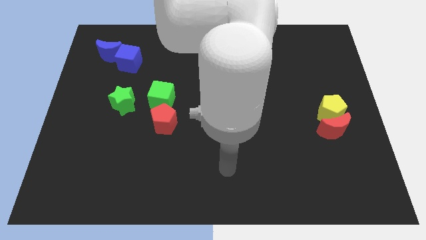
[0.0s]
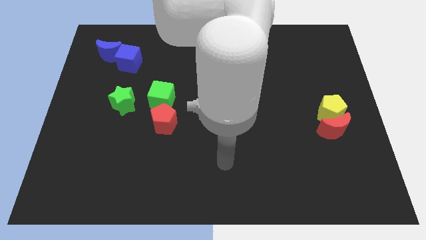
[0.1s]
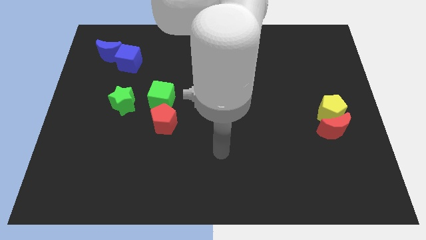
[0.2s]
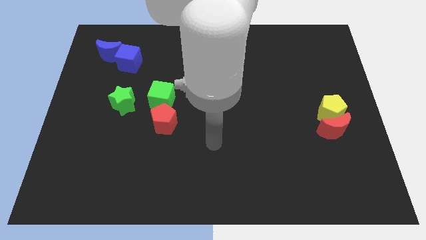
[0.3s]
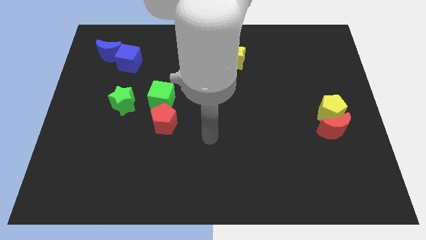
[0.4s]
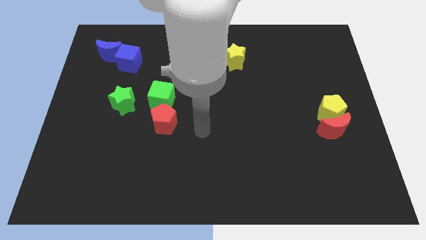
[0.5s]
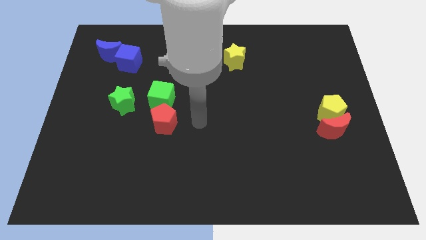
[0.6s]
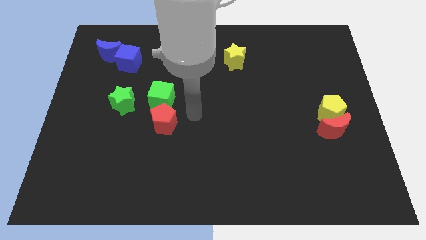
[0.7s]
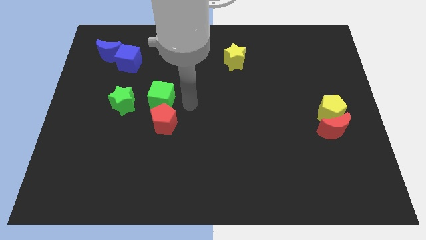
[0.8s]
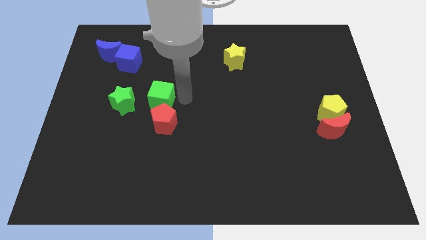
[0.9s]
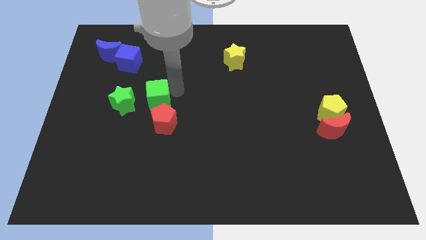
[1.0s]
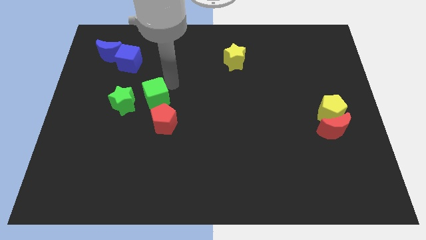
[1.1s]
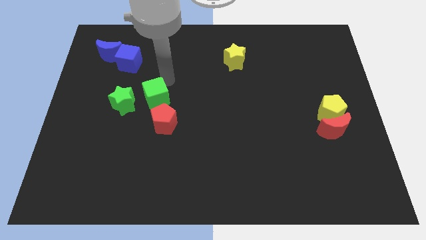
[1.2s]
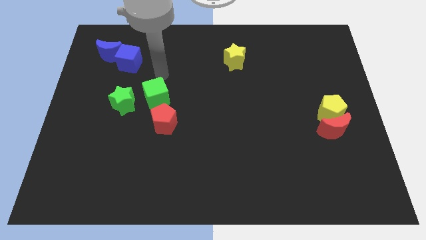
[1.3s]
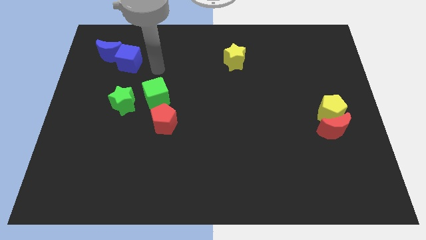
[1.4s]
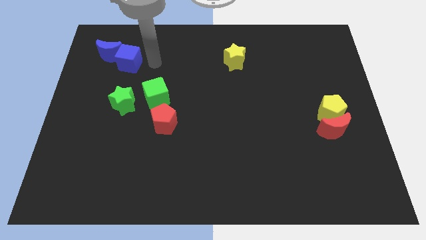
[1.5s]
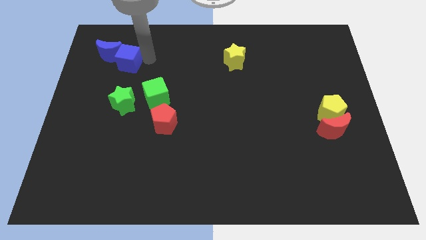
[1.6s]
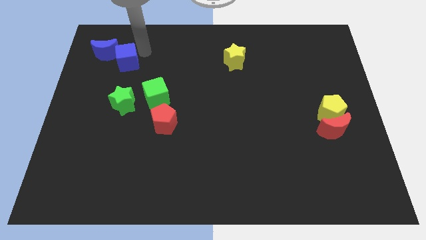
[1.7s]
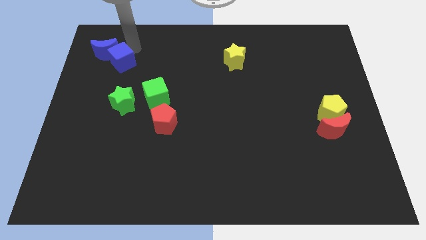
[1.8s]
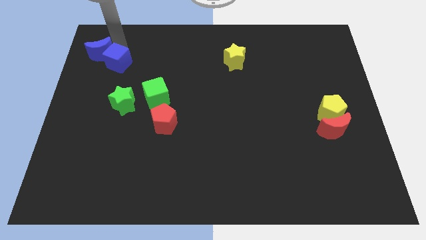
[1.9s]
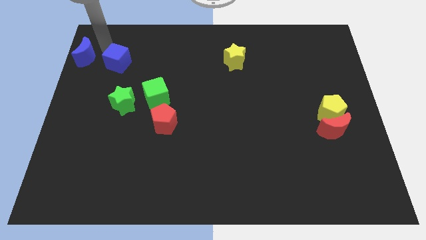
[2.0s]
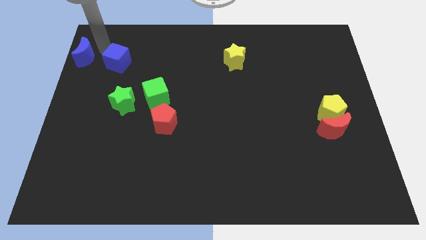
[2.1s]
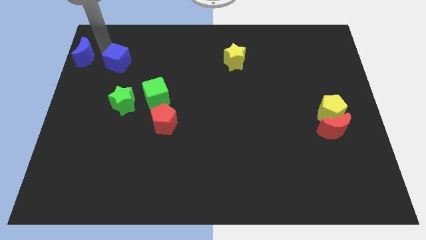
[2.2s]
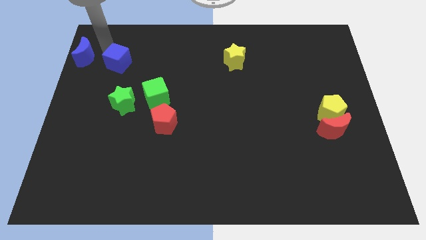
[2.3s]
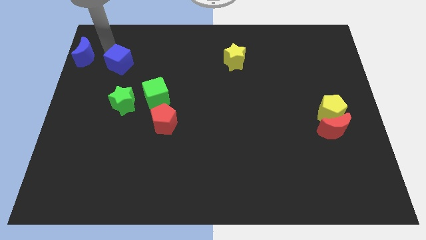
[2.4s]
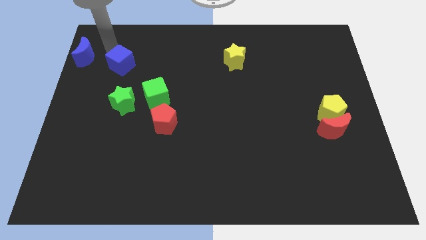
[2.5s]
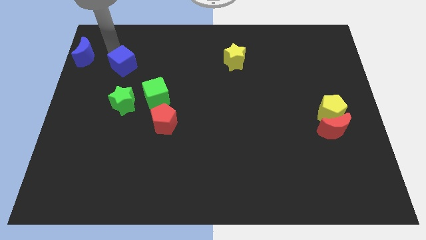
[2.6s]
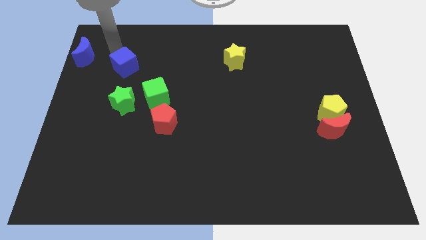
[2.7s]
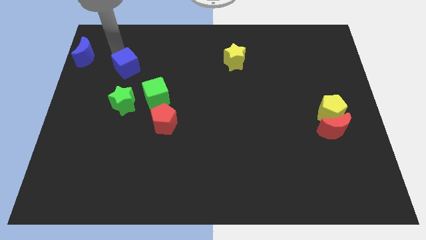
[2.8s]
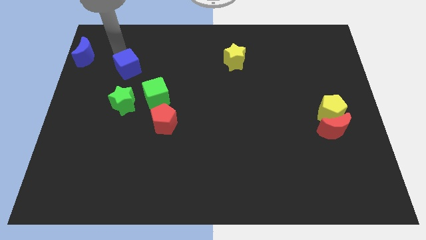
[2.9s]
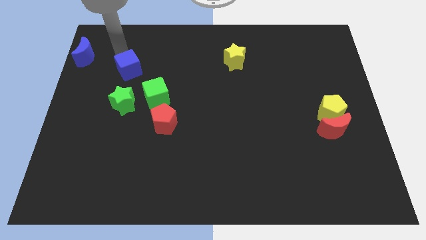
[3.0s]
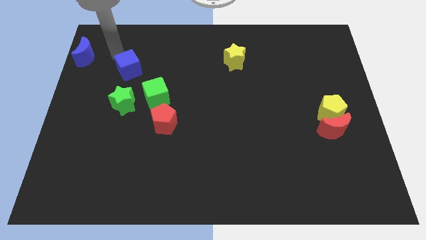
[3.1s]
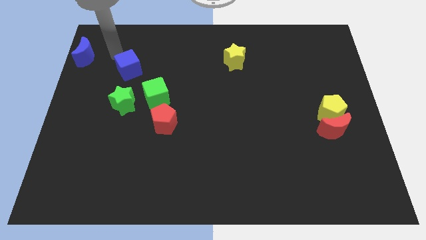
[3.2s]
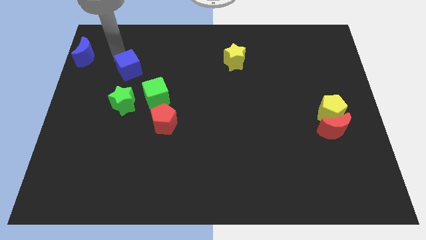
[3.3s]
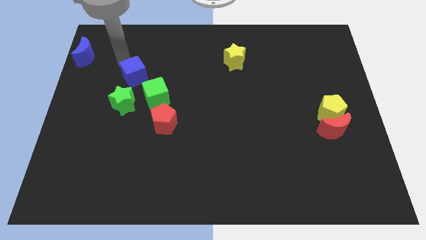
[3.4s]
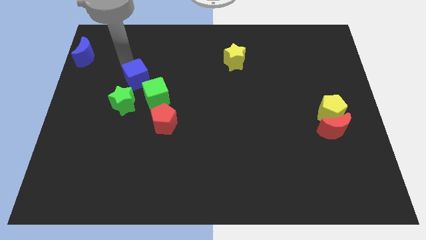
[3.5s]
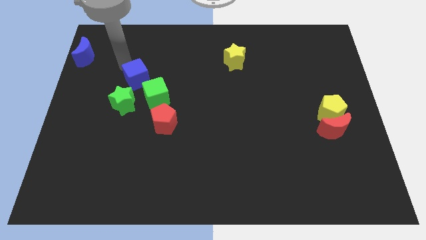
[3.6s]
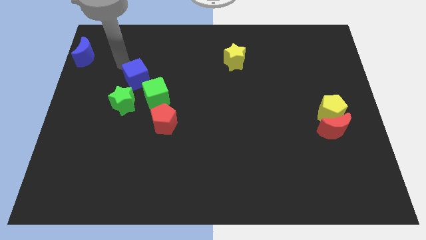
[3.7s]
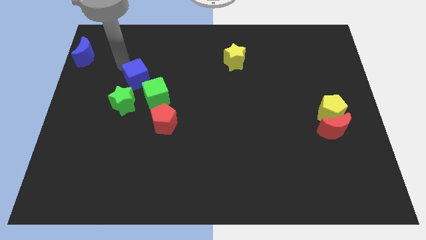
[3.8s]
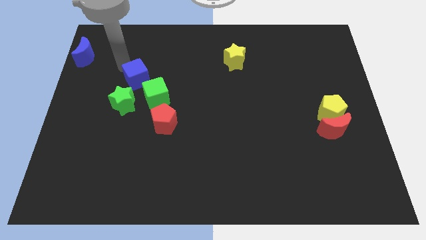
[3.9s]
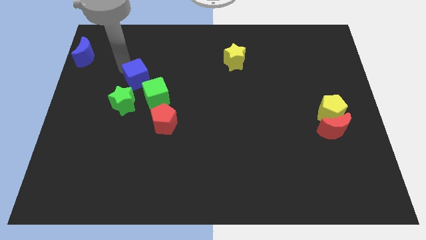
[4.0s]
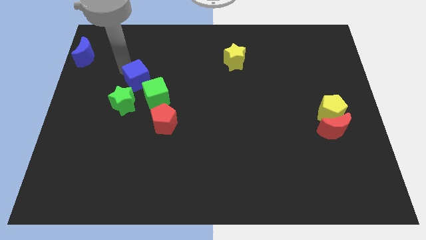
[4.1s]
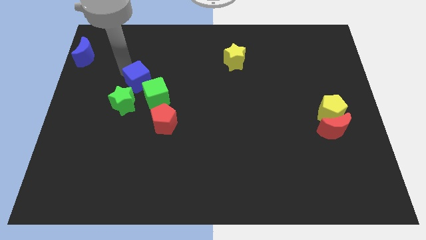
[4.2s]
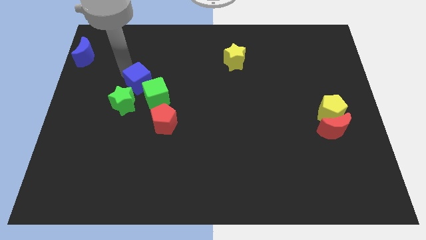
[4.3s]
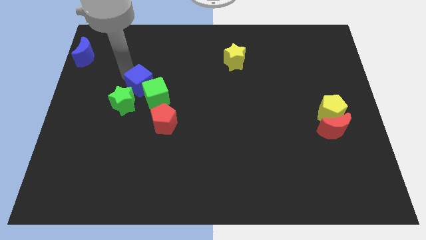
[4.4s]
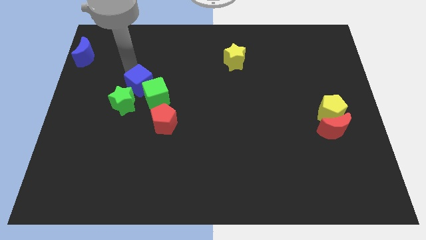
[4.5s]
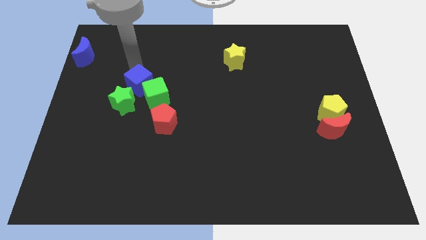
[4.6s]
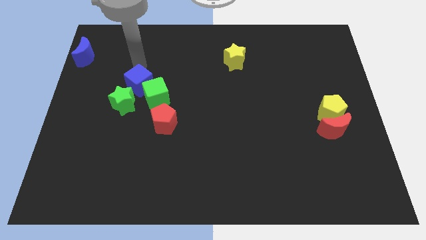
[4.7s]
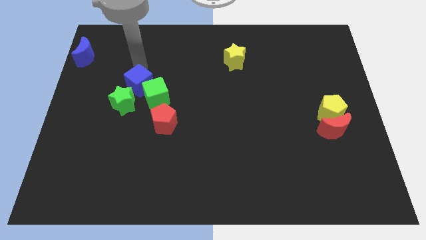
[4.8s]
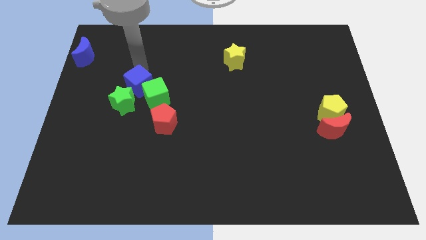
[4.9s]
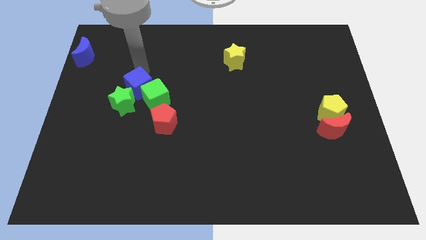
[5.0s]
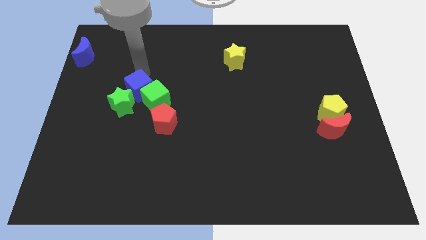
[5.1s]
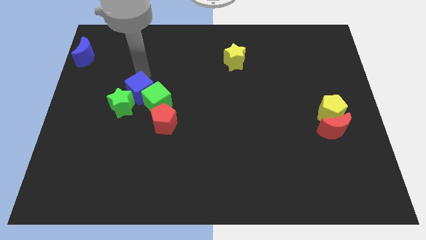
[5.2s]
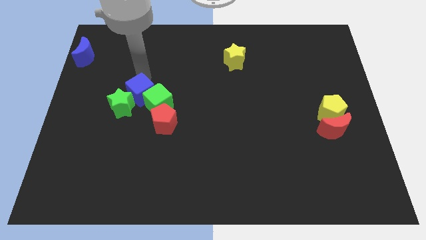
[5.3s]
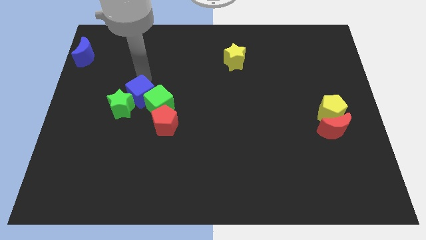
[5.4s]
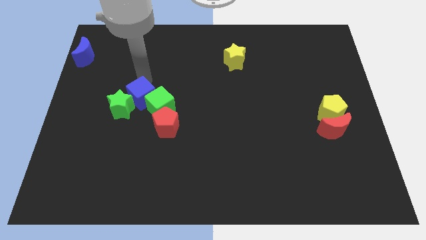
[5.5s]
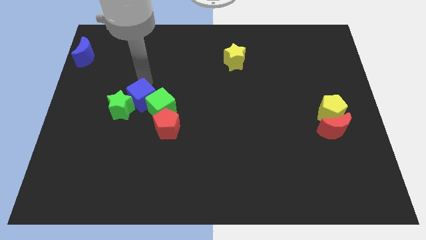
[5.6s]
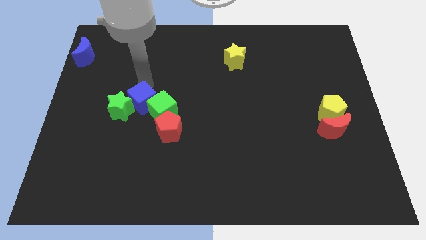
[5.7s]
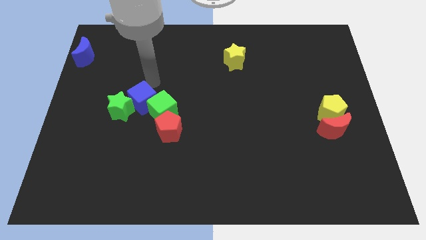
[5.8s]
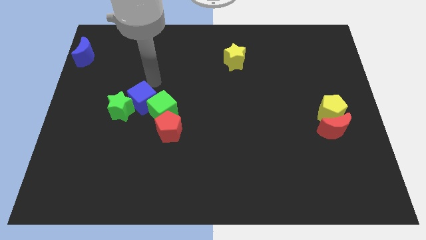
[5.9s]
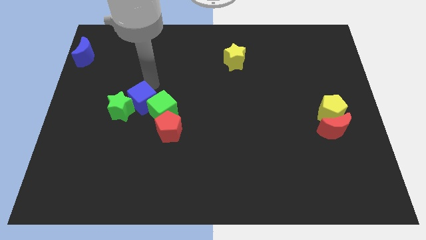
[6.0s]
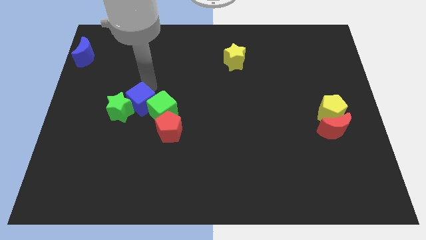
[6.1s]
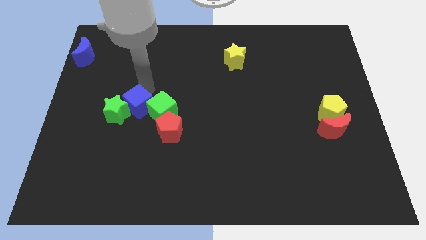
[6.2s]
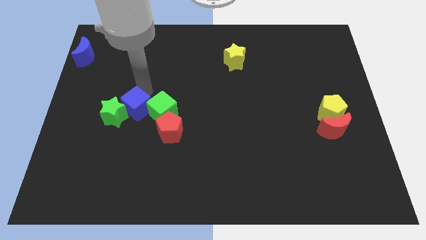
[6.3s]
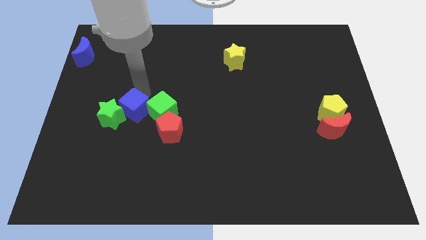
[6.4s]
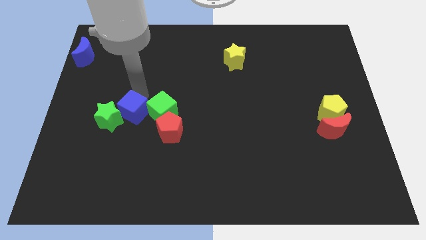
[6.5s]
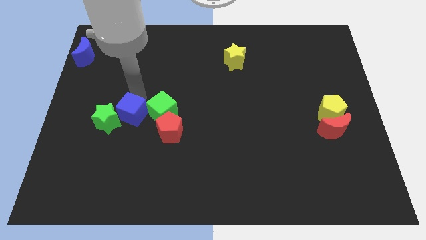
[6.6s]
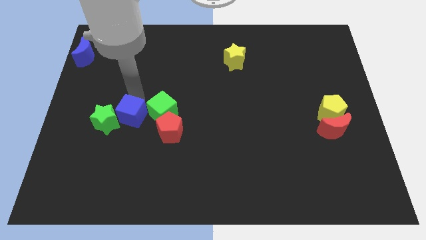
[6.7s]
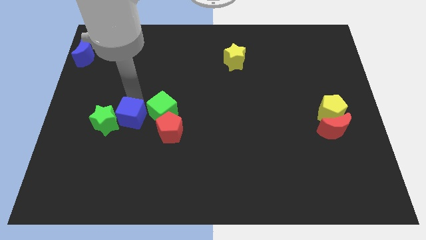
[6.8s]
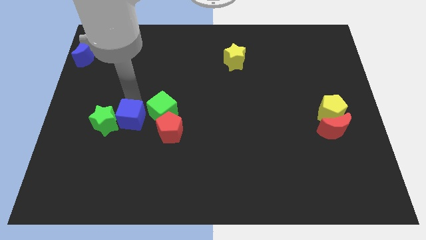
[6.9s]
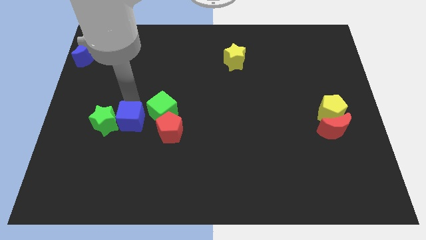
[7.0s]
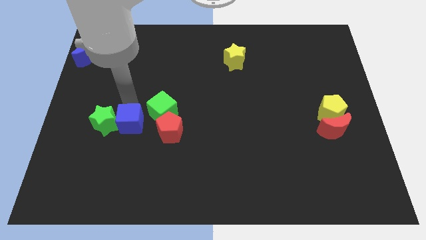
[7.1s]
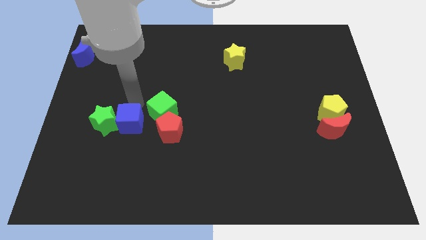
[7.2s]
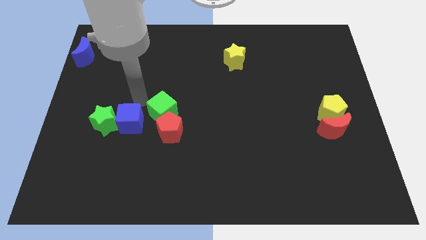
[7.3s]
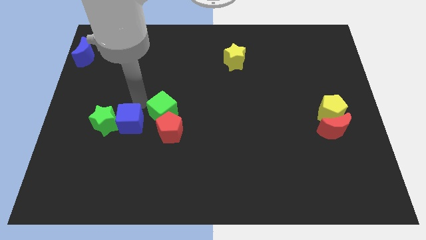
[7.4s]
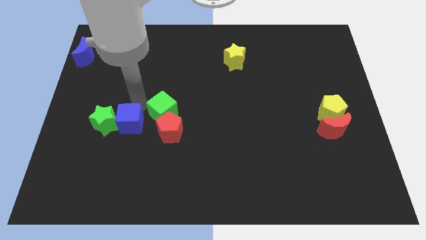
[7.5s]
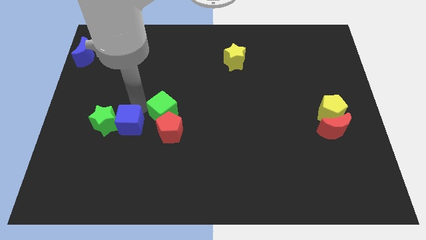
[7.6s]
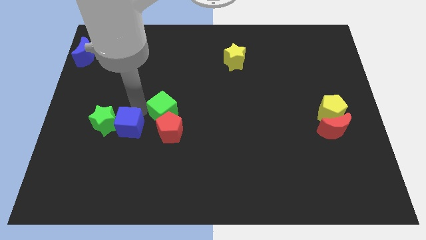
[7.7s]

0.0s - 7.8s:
push the blue cube down
